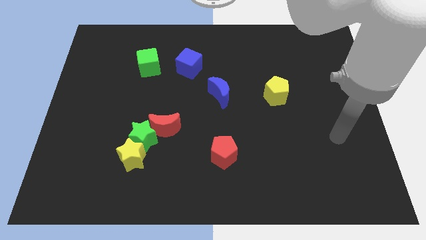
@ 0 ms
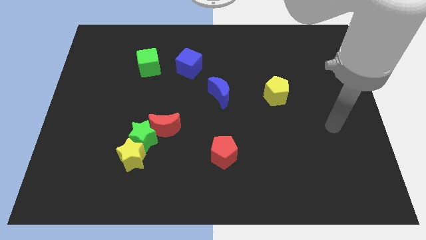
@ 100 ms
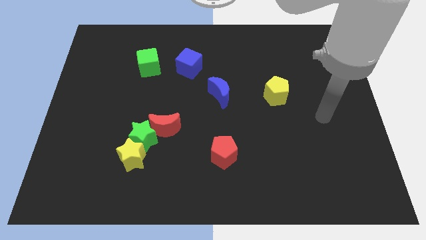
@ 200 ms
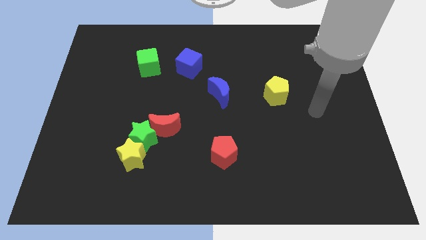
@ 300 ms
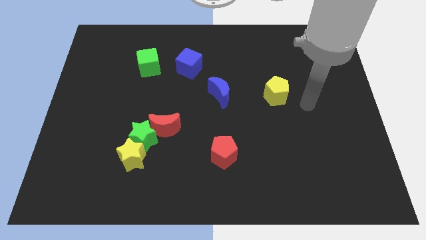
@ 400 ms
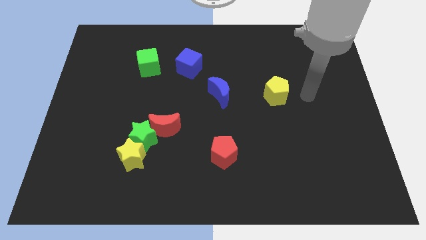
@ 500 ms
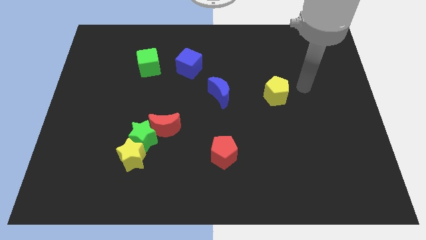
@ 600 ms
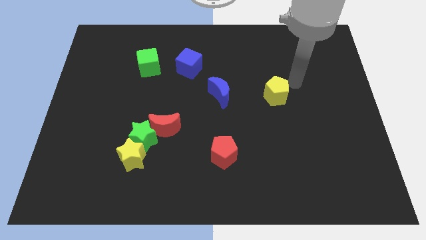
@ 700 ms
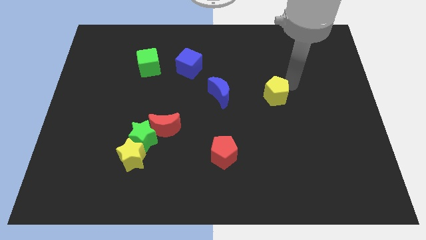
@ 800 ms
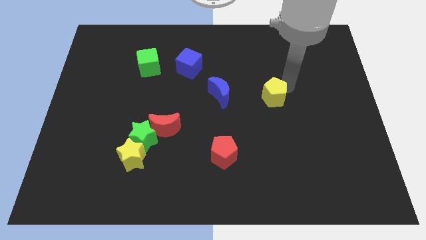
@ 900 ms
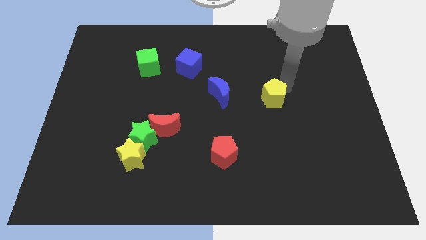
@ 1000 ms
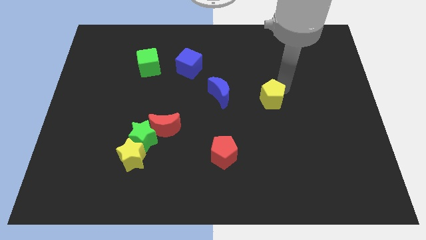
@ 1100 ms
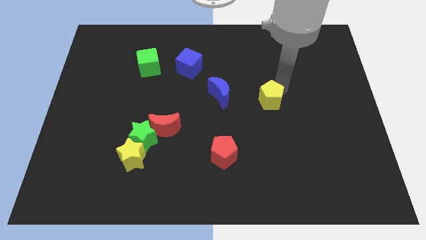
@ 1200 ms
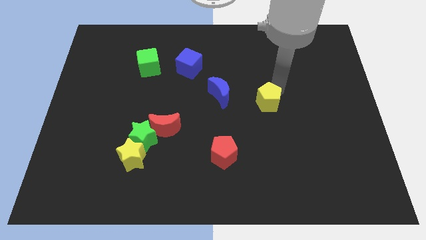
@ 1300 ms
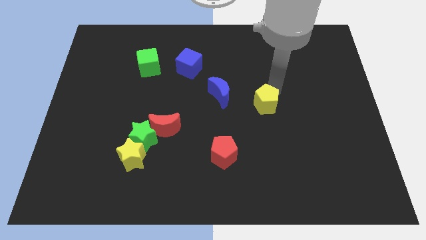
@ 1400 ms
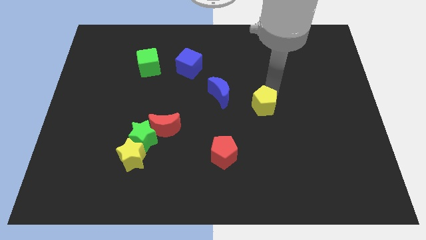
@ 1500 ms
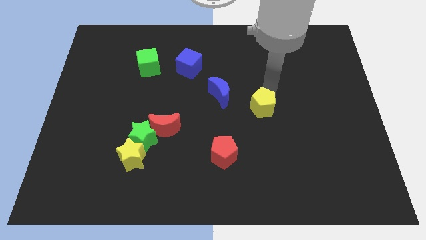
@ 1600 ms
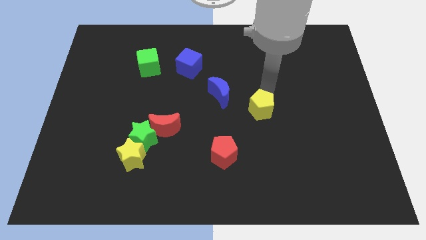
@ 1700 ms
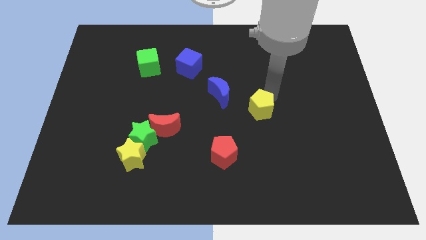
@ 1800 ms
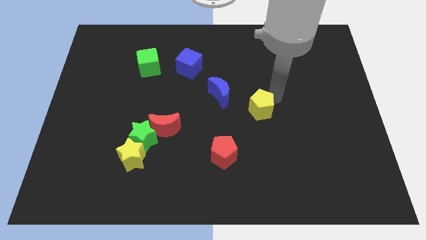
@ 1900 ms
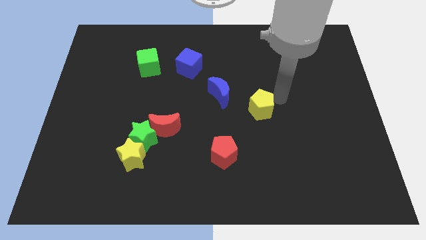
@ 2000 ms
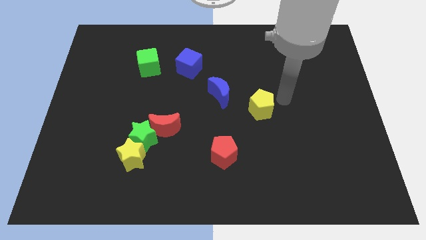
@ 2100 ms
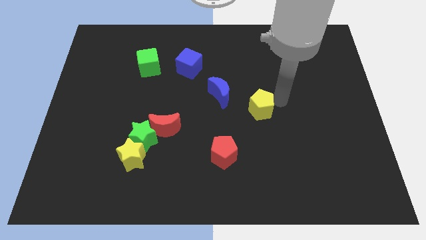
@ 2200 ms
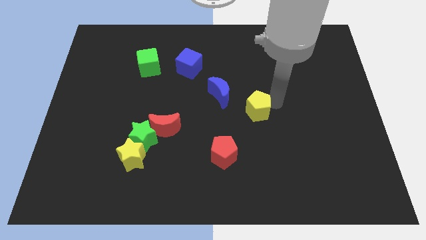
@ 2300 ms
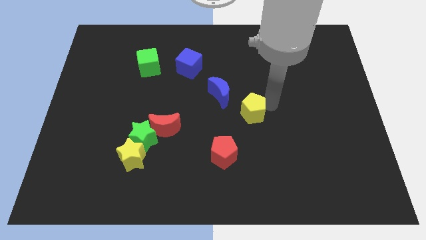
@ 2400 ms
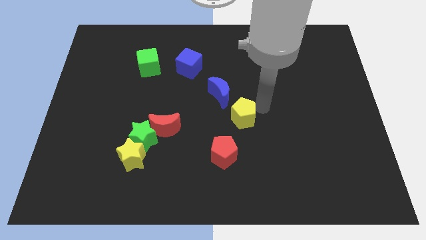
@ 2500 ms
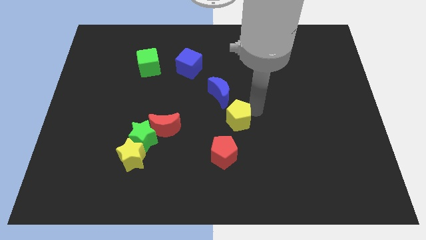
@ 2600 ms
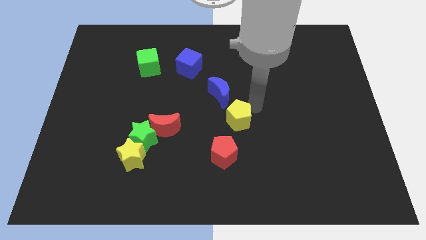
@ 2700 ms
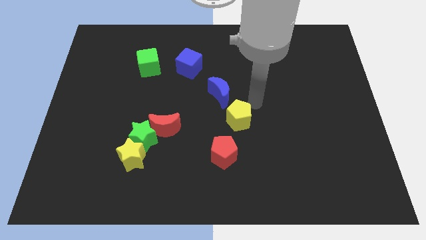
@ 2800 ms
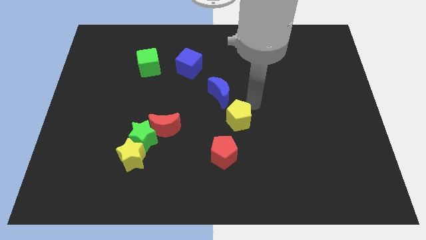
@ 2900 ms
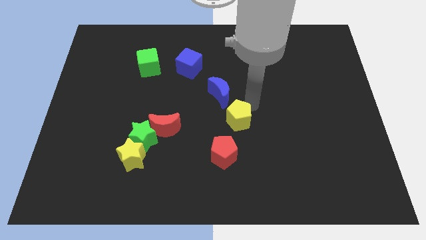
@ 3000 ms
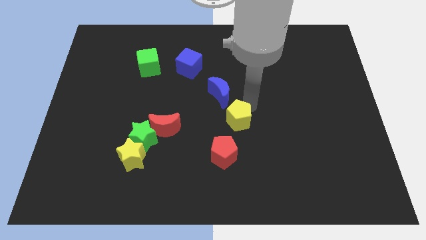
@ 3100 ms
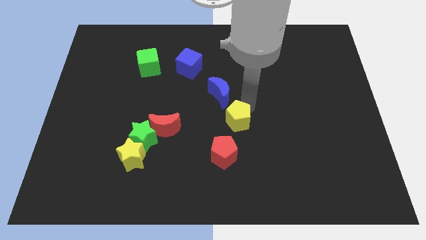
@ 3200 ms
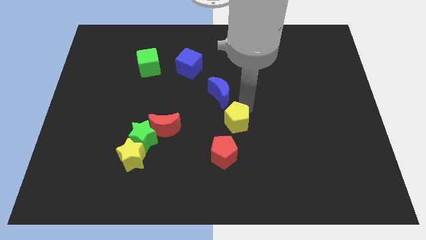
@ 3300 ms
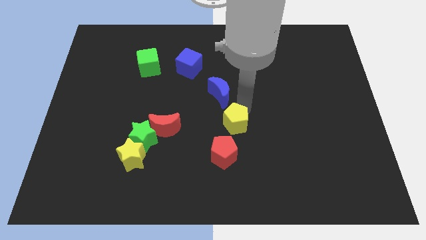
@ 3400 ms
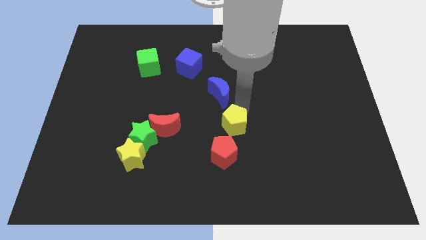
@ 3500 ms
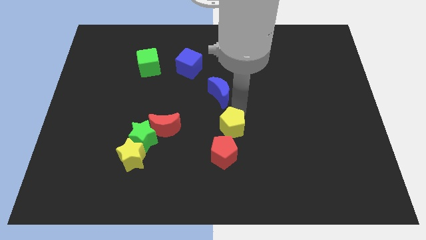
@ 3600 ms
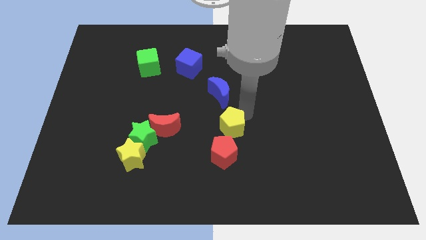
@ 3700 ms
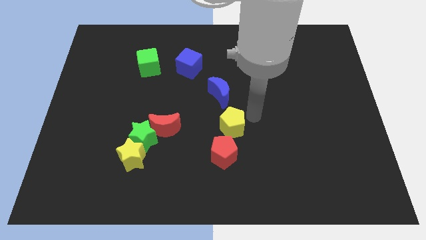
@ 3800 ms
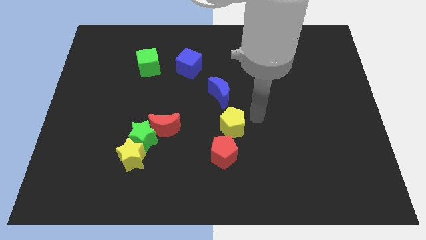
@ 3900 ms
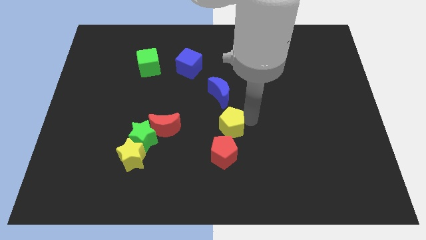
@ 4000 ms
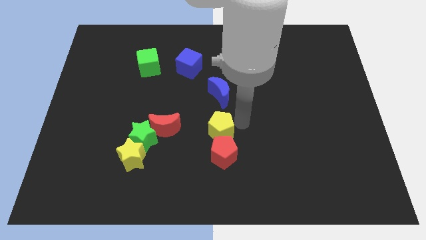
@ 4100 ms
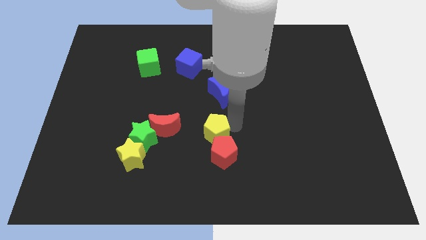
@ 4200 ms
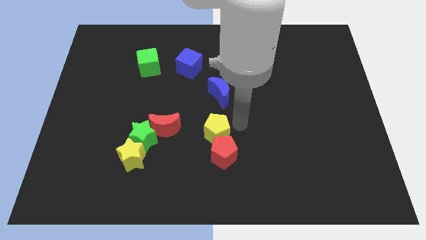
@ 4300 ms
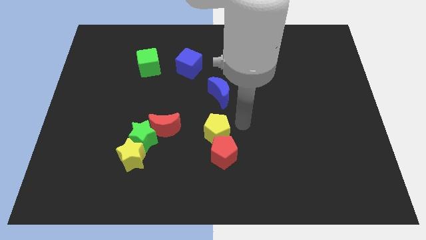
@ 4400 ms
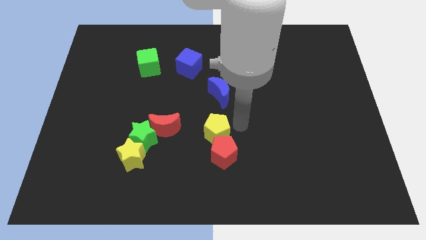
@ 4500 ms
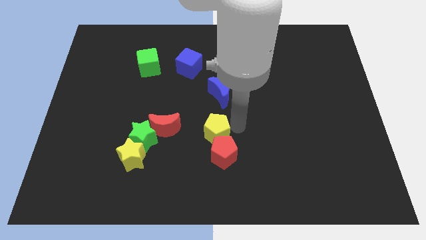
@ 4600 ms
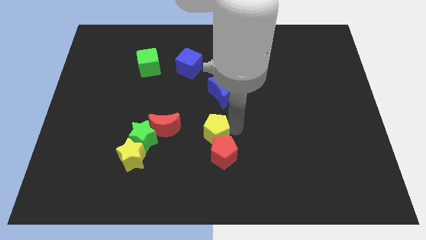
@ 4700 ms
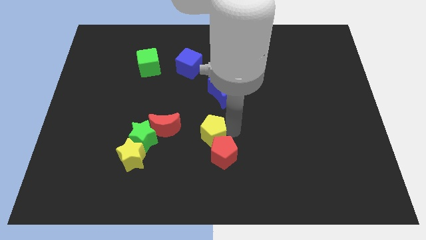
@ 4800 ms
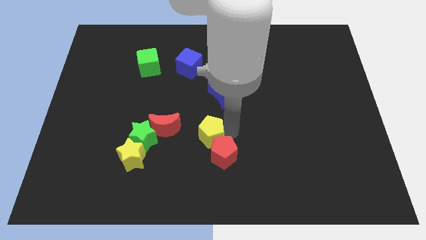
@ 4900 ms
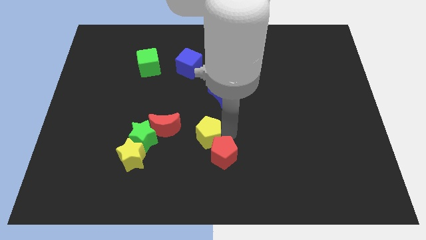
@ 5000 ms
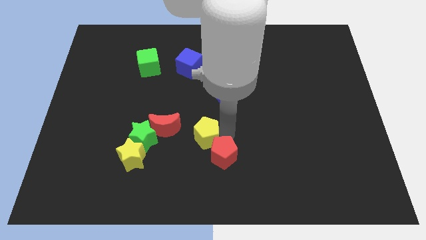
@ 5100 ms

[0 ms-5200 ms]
slide the yellow pentagon down and left

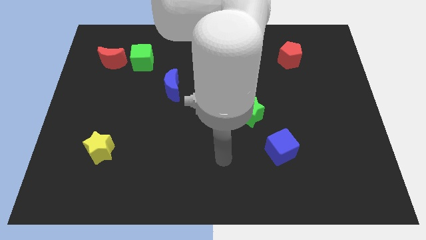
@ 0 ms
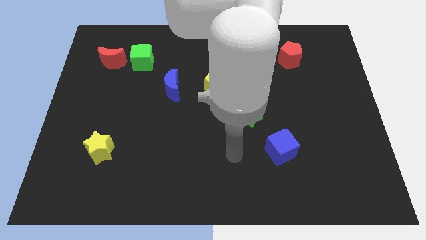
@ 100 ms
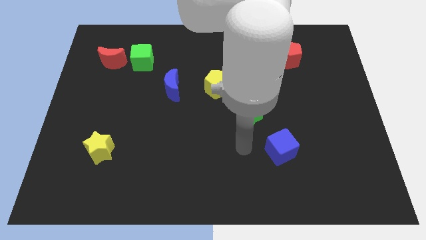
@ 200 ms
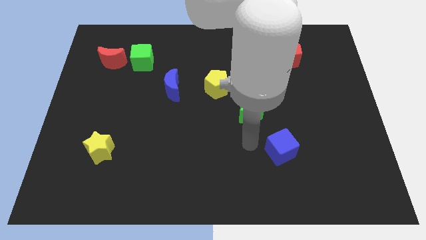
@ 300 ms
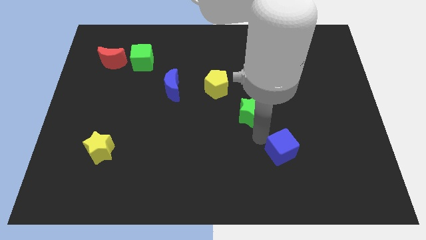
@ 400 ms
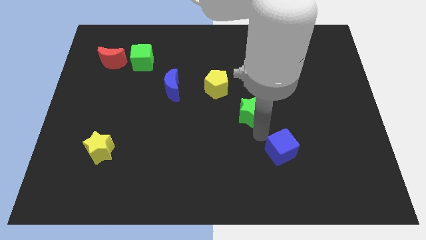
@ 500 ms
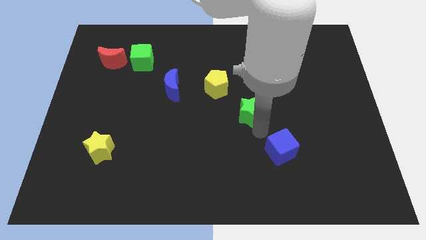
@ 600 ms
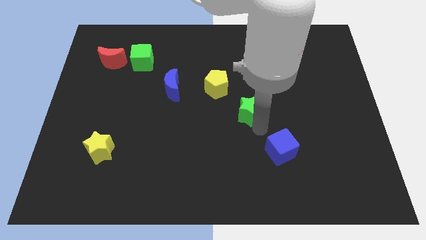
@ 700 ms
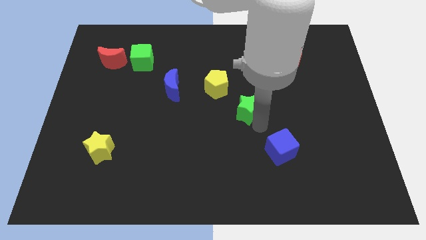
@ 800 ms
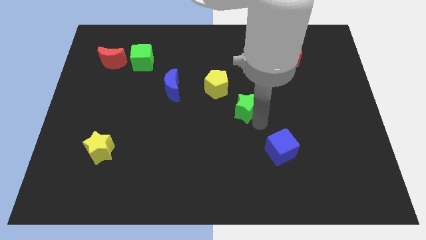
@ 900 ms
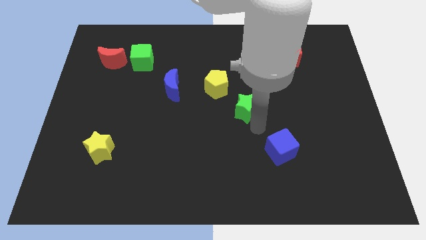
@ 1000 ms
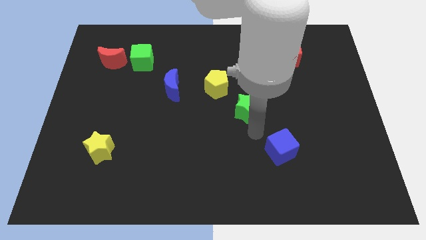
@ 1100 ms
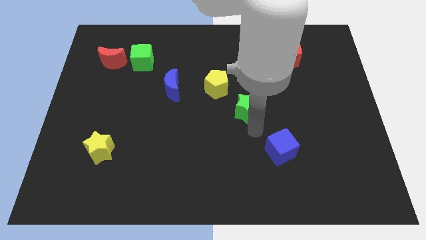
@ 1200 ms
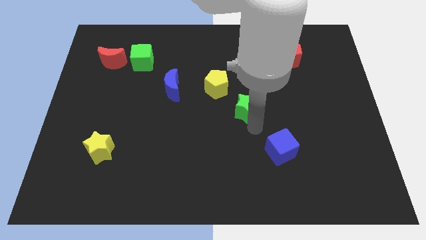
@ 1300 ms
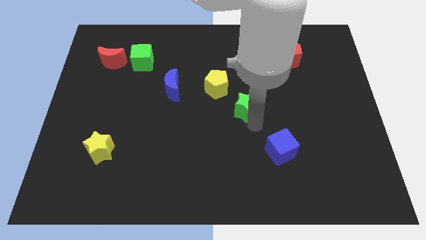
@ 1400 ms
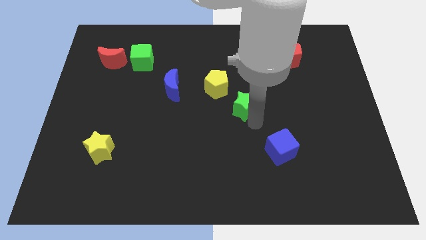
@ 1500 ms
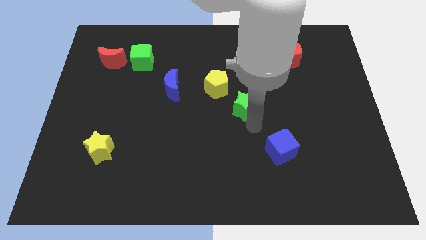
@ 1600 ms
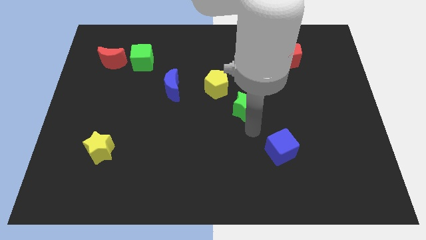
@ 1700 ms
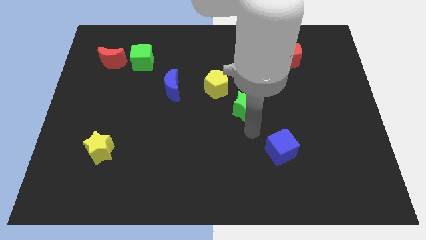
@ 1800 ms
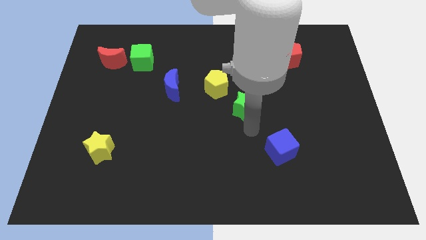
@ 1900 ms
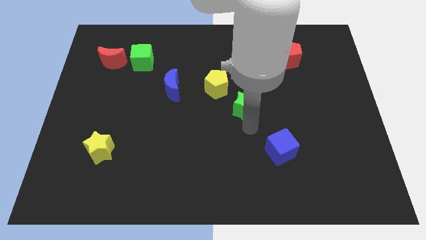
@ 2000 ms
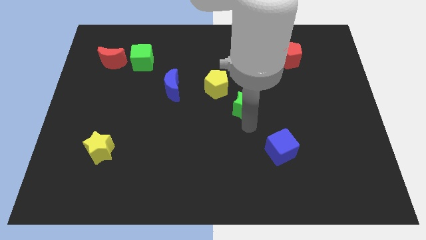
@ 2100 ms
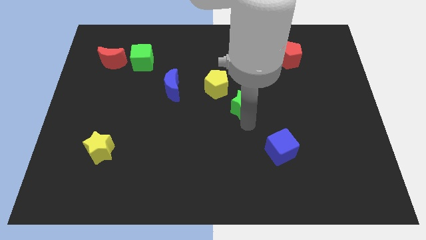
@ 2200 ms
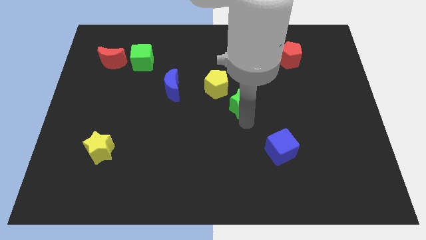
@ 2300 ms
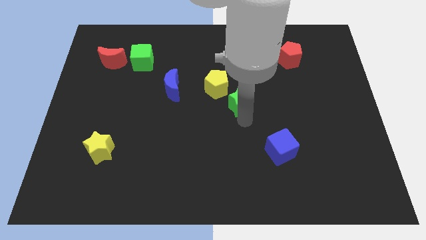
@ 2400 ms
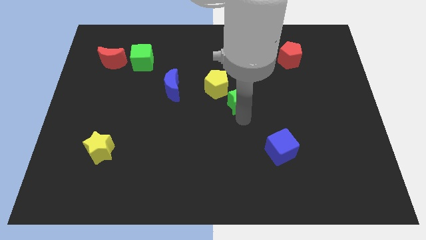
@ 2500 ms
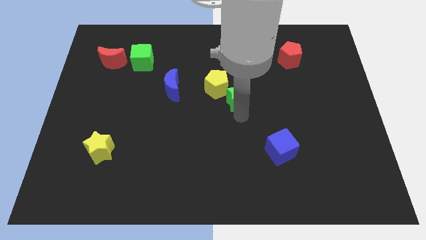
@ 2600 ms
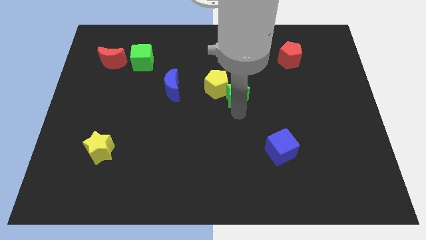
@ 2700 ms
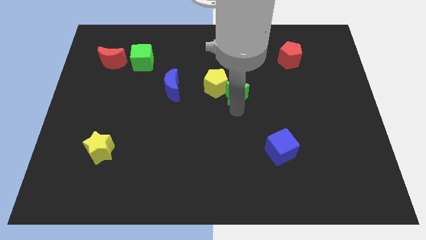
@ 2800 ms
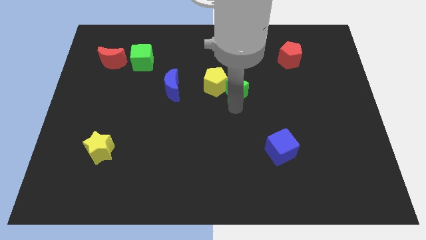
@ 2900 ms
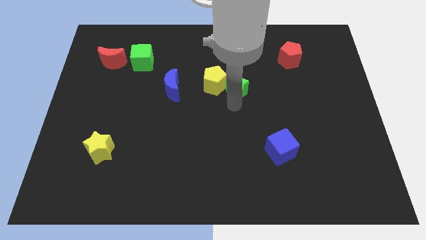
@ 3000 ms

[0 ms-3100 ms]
slide the green star a little up
